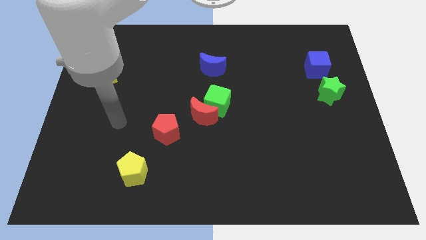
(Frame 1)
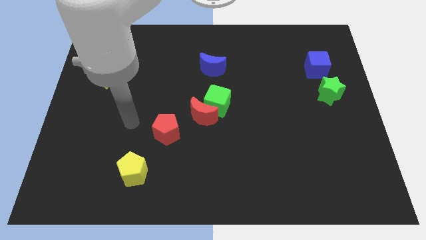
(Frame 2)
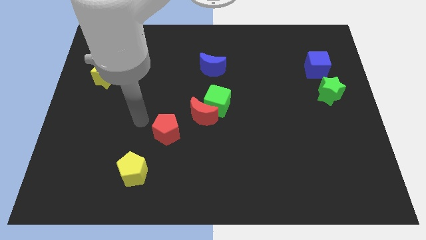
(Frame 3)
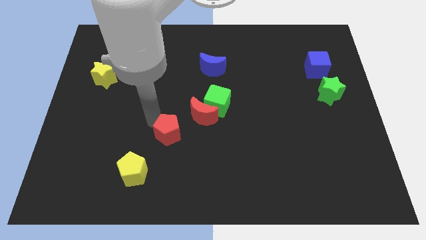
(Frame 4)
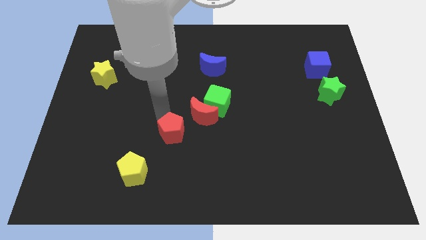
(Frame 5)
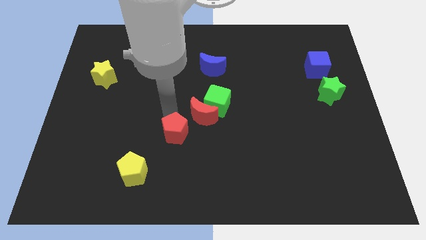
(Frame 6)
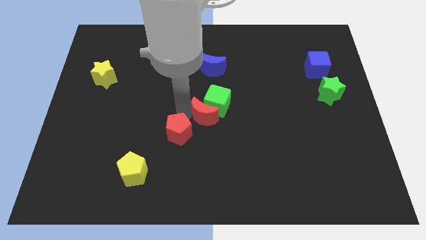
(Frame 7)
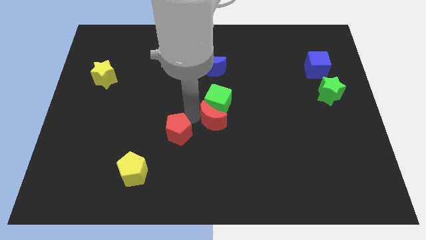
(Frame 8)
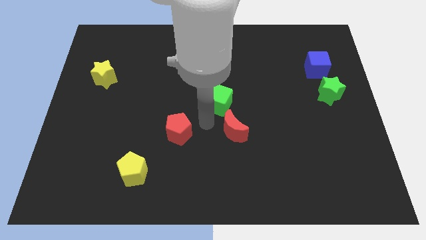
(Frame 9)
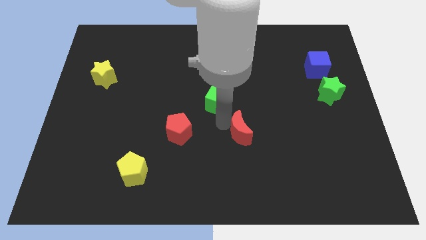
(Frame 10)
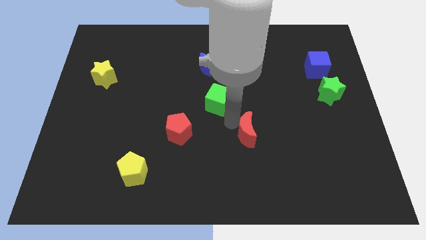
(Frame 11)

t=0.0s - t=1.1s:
pull the green cube apart from the red moon

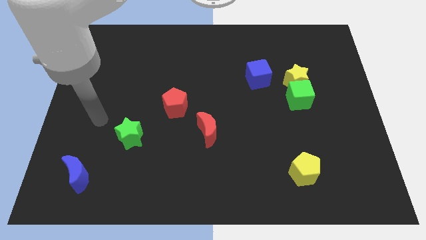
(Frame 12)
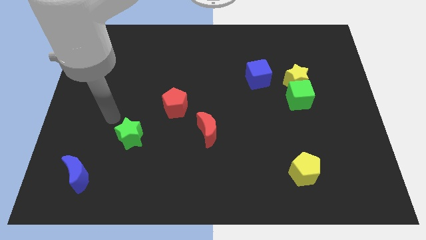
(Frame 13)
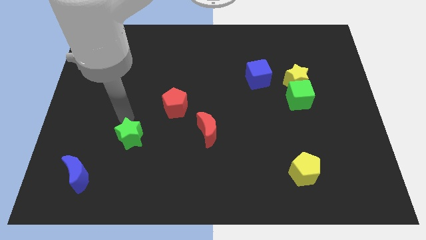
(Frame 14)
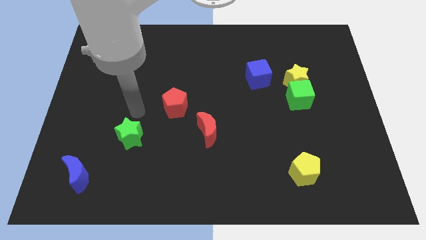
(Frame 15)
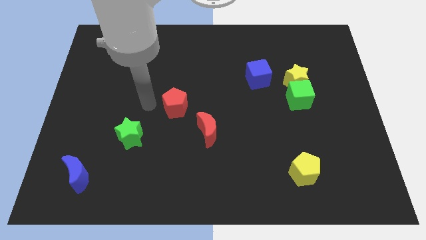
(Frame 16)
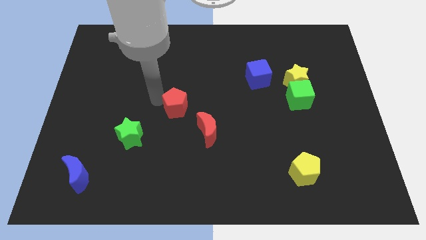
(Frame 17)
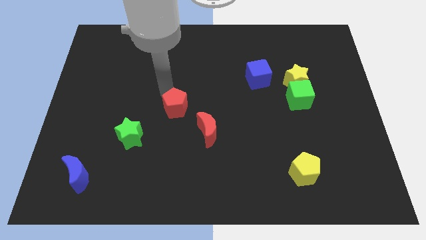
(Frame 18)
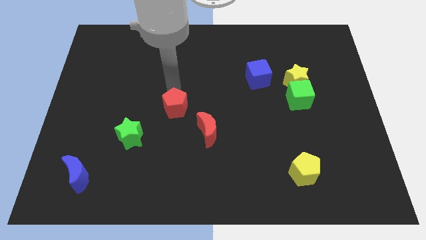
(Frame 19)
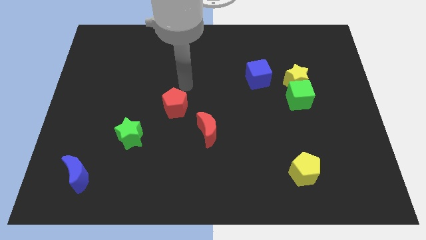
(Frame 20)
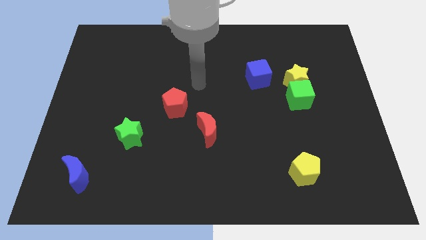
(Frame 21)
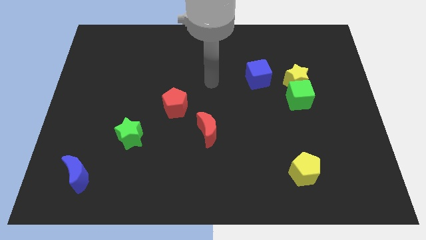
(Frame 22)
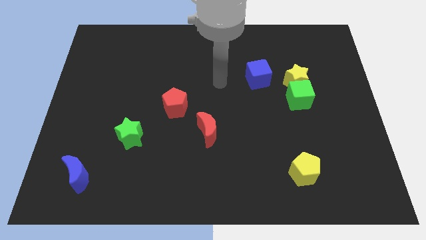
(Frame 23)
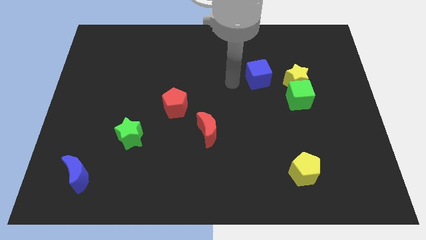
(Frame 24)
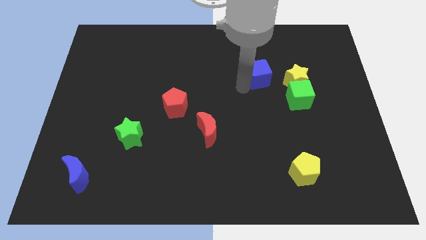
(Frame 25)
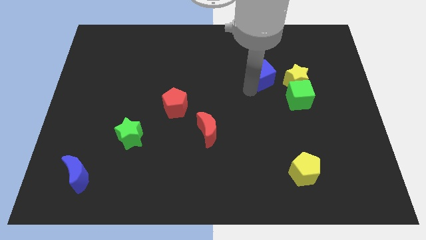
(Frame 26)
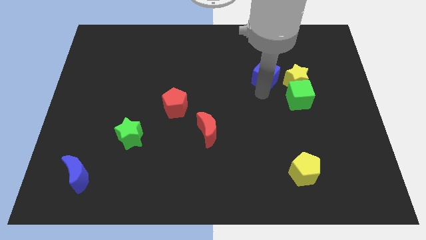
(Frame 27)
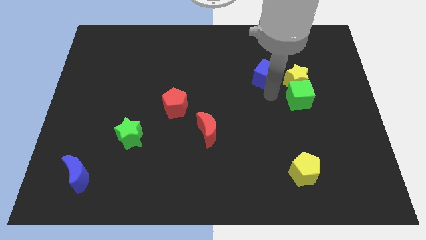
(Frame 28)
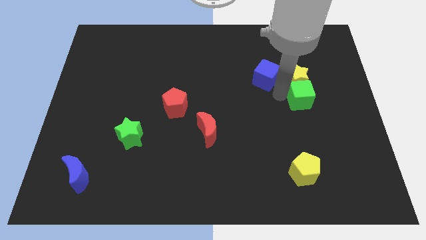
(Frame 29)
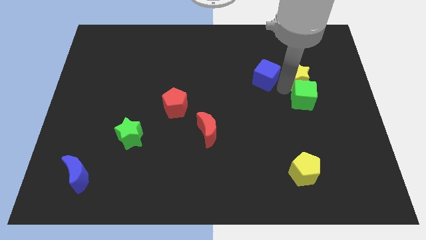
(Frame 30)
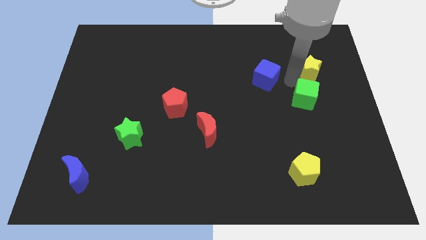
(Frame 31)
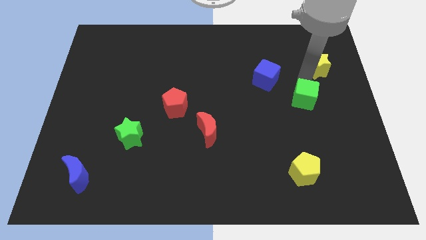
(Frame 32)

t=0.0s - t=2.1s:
separate the green cube from the yellow star

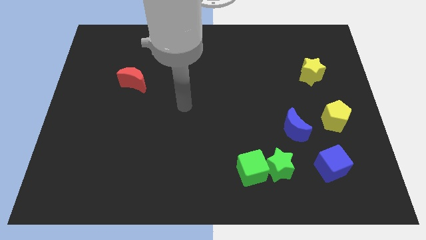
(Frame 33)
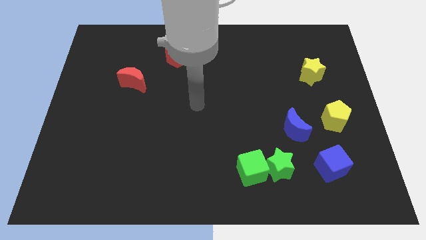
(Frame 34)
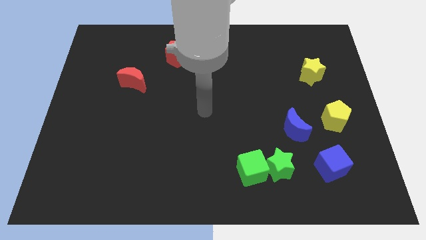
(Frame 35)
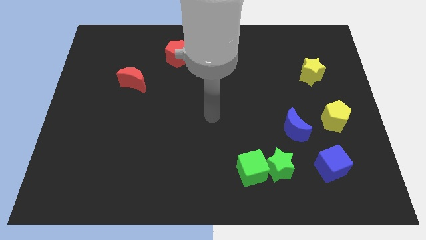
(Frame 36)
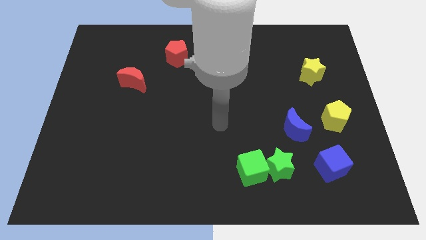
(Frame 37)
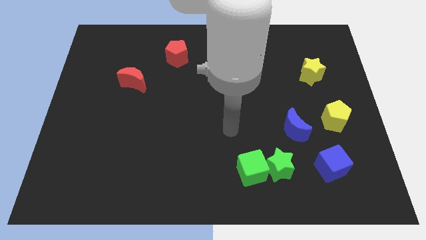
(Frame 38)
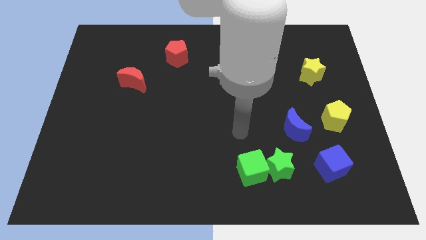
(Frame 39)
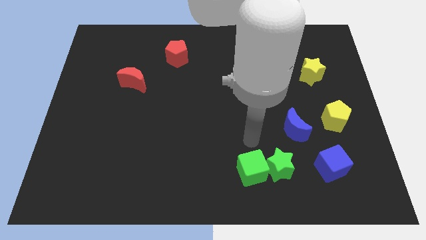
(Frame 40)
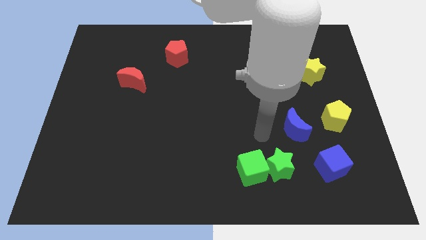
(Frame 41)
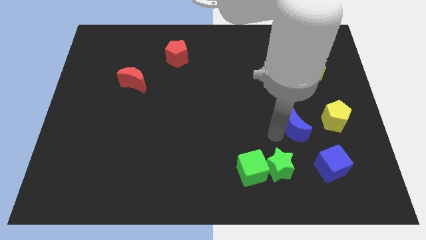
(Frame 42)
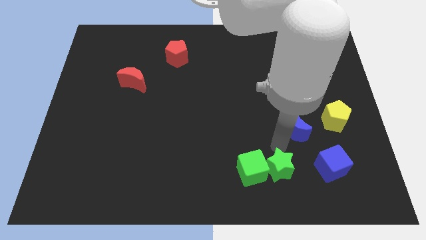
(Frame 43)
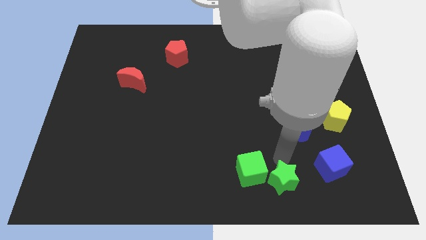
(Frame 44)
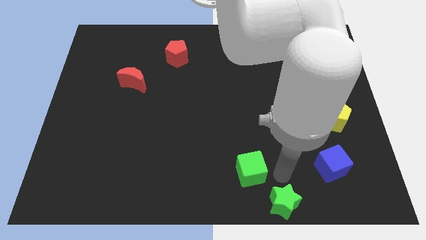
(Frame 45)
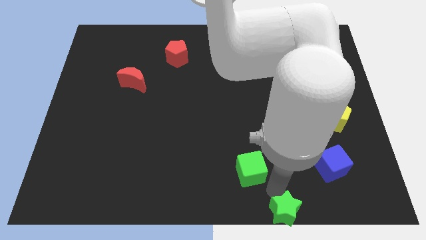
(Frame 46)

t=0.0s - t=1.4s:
pull the green cube apart from the green star

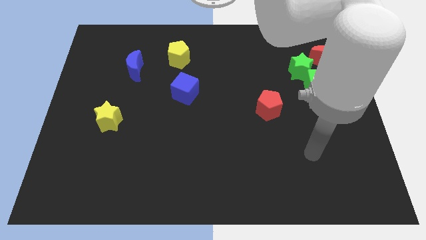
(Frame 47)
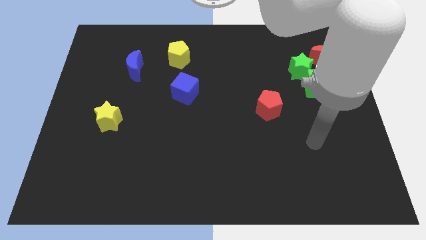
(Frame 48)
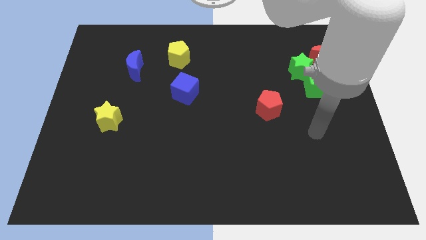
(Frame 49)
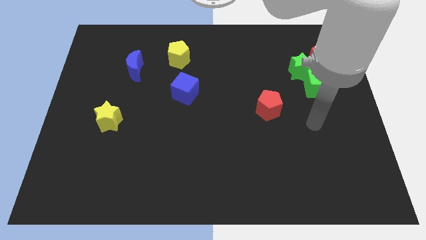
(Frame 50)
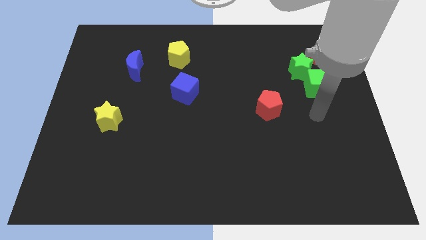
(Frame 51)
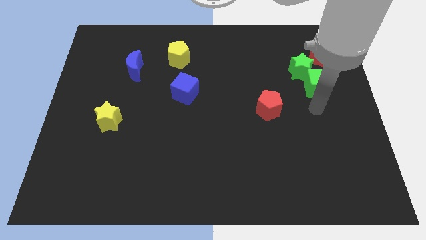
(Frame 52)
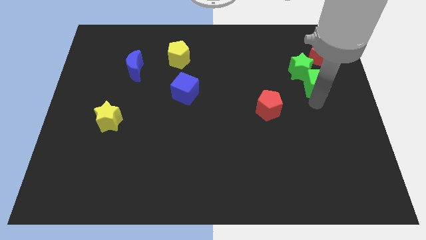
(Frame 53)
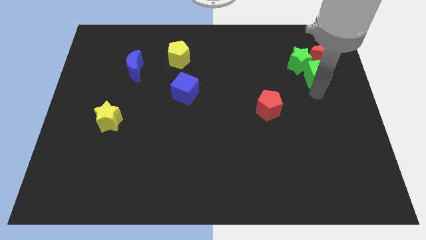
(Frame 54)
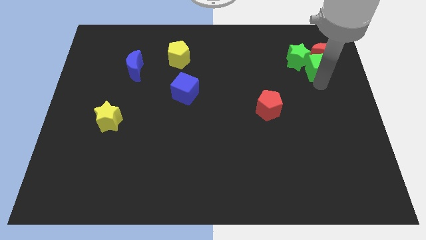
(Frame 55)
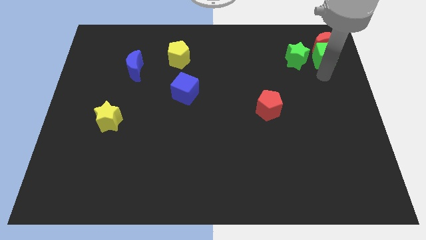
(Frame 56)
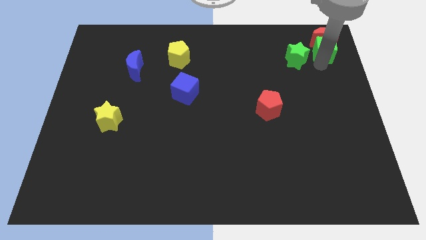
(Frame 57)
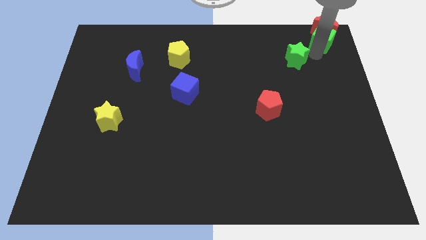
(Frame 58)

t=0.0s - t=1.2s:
pull the green star apart from the green cube and red moon

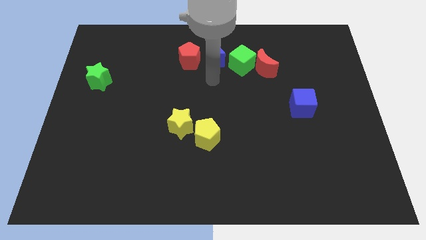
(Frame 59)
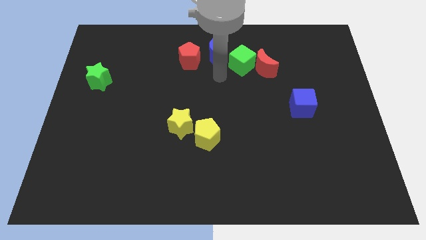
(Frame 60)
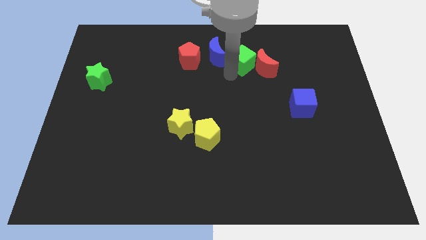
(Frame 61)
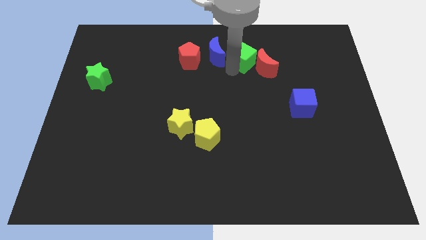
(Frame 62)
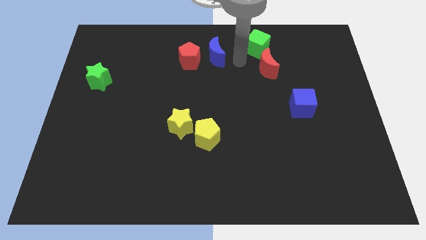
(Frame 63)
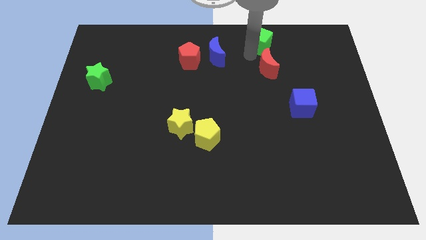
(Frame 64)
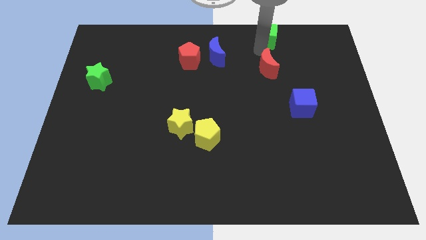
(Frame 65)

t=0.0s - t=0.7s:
separate the red moon from the green cube

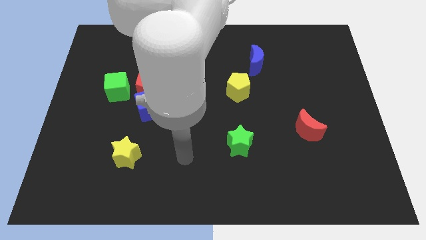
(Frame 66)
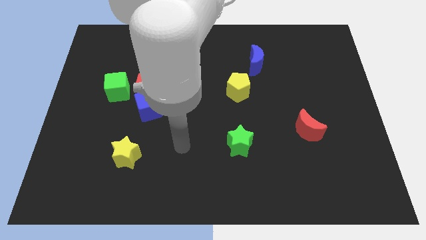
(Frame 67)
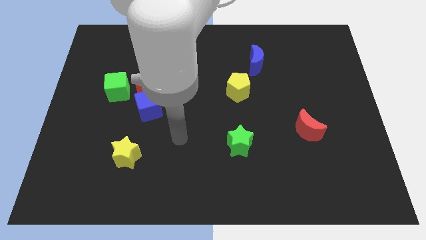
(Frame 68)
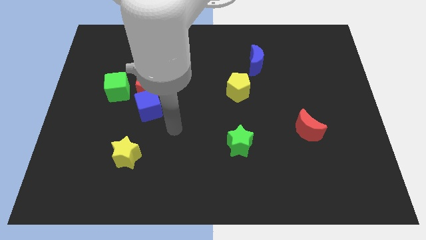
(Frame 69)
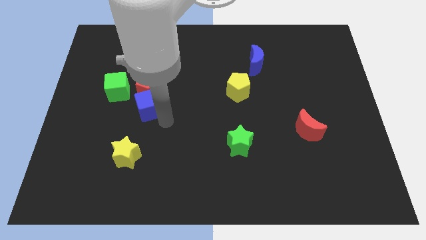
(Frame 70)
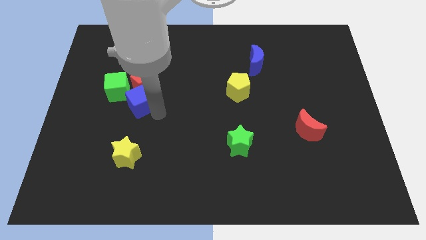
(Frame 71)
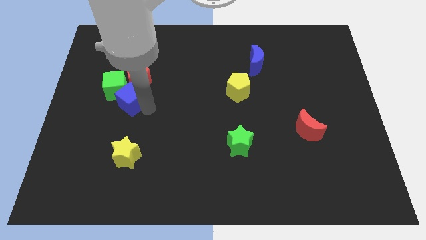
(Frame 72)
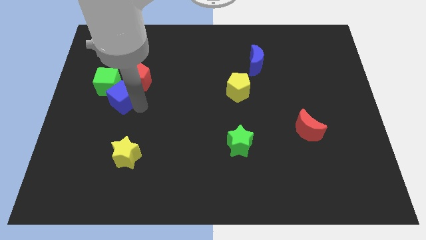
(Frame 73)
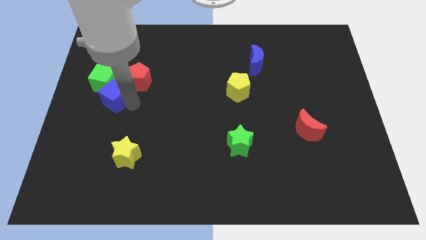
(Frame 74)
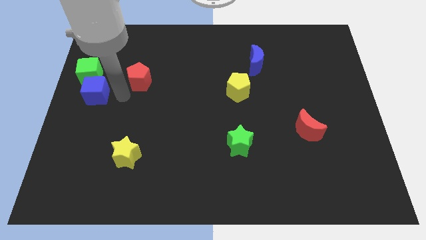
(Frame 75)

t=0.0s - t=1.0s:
pull the red pentagon apart from the blue cube and green cube

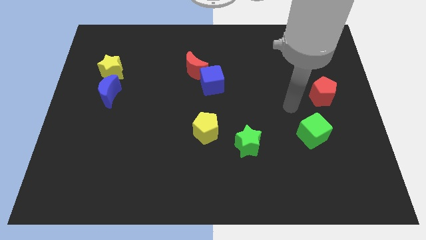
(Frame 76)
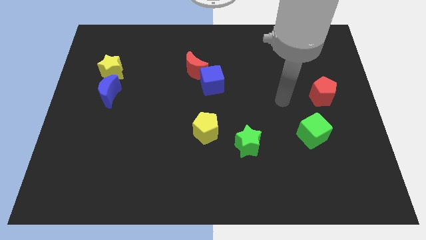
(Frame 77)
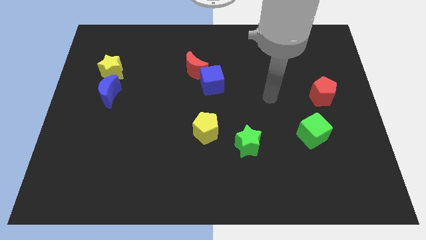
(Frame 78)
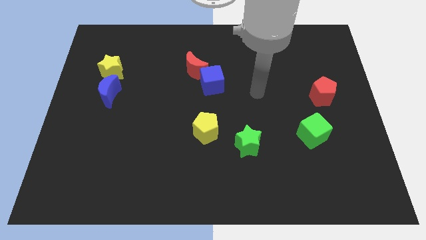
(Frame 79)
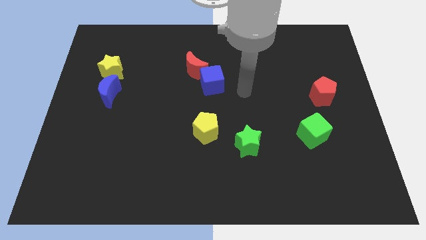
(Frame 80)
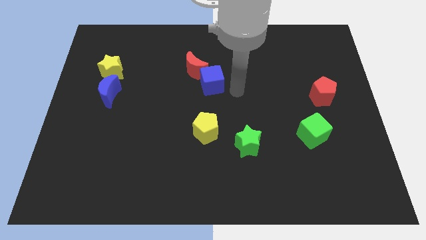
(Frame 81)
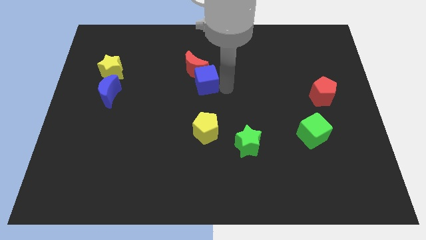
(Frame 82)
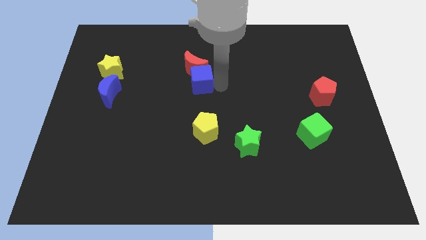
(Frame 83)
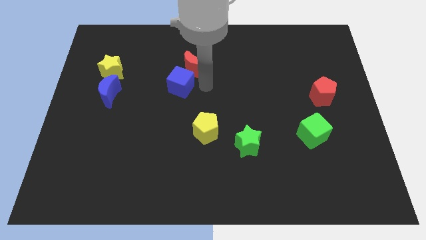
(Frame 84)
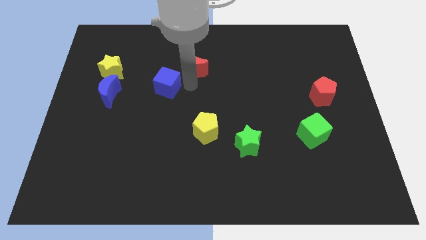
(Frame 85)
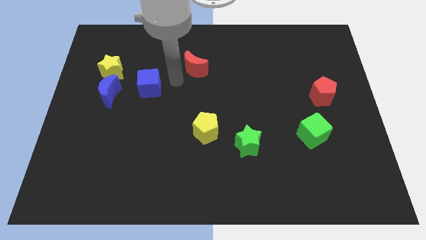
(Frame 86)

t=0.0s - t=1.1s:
pull the red moon apart from the blue cube

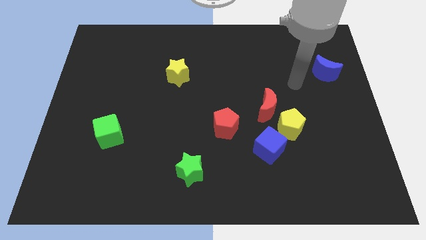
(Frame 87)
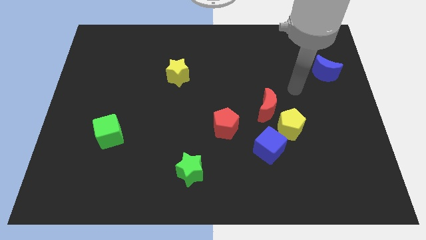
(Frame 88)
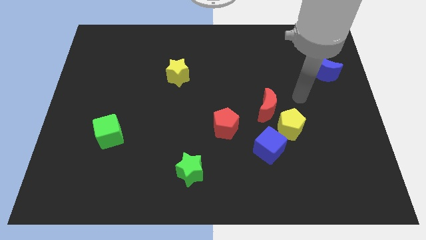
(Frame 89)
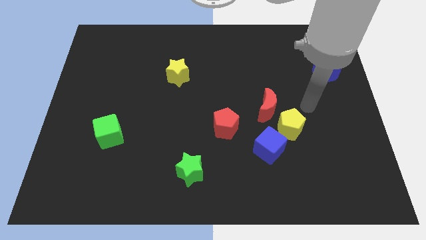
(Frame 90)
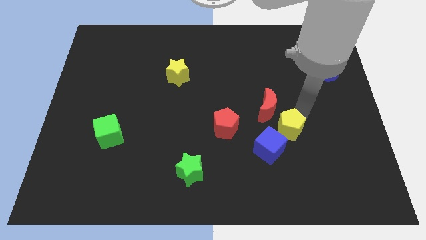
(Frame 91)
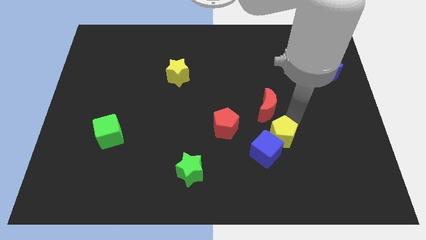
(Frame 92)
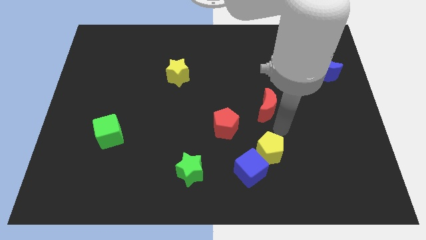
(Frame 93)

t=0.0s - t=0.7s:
separate the red moon from the yellow pentagon
